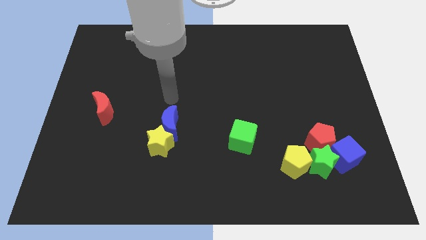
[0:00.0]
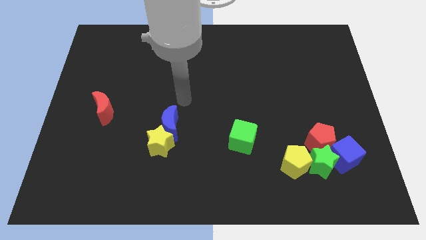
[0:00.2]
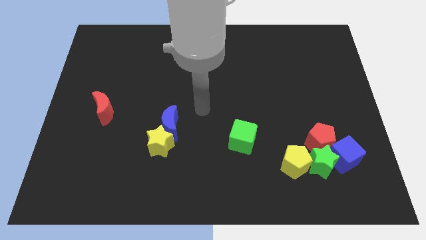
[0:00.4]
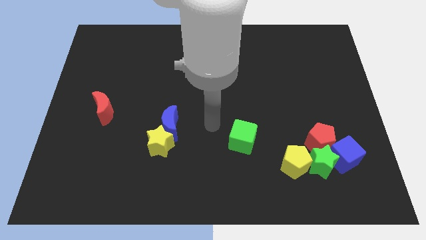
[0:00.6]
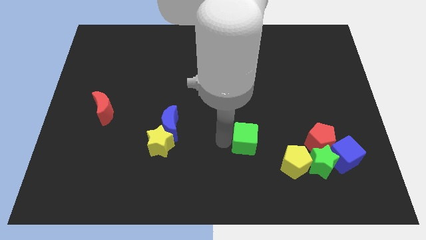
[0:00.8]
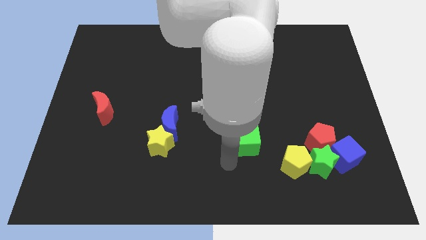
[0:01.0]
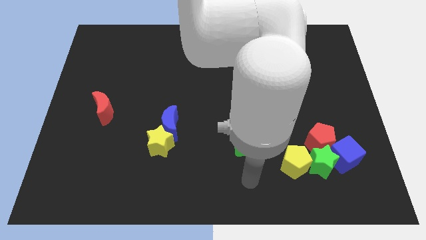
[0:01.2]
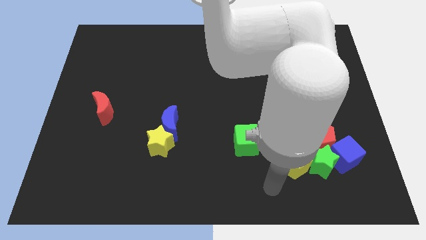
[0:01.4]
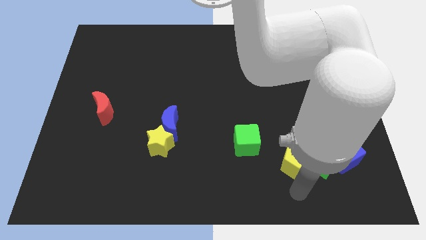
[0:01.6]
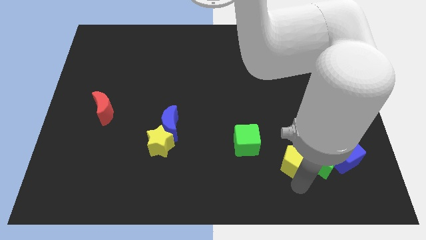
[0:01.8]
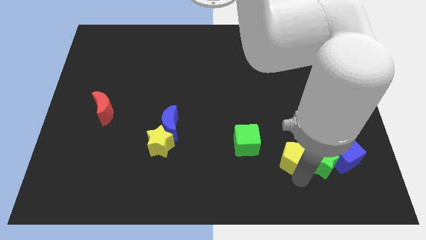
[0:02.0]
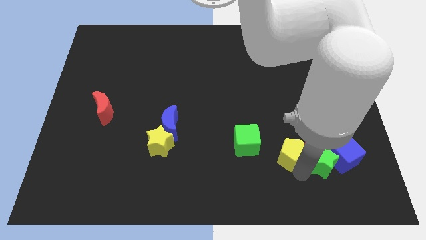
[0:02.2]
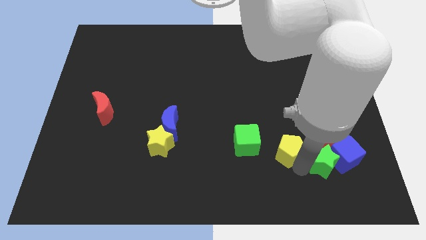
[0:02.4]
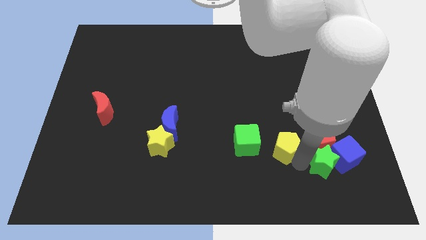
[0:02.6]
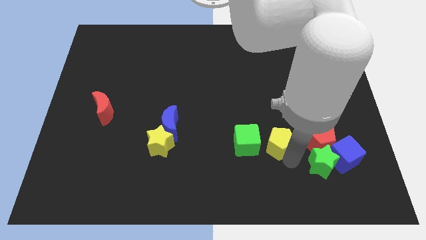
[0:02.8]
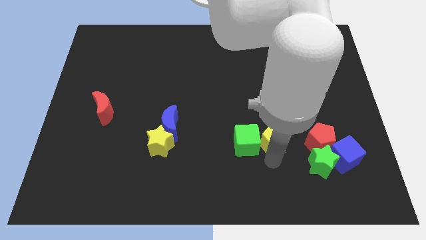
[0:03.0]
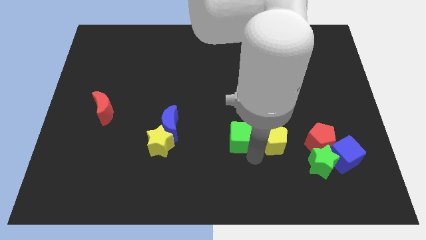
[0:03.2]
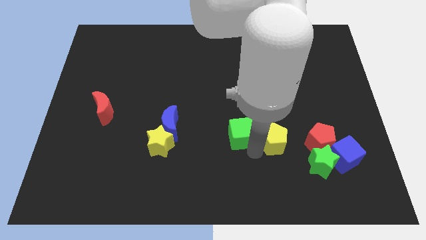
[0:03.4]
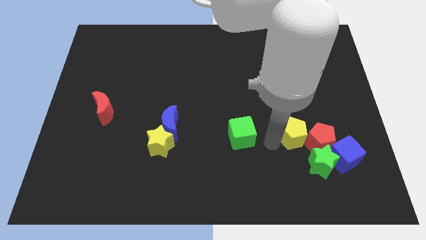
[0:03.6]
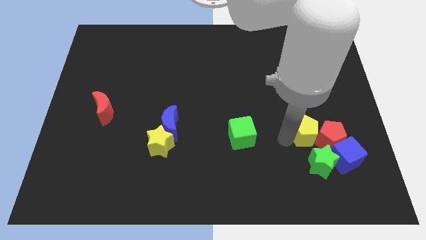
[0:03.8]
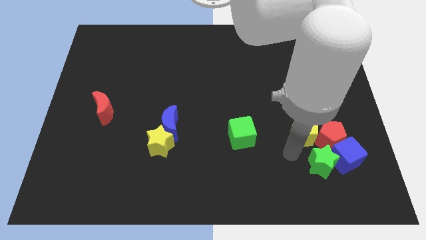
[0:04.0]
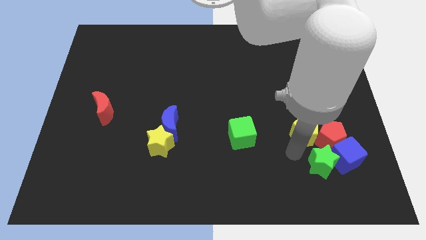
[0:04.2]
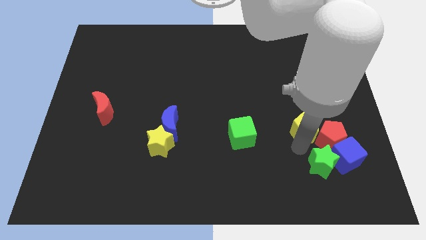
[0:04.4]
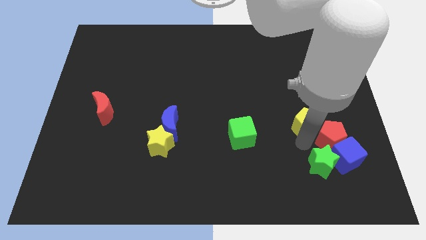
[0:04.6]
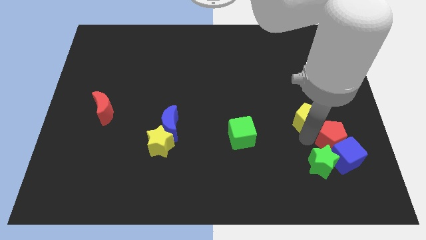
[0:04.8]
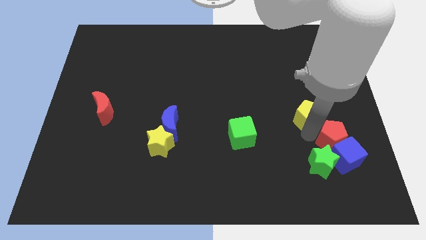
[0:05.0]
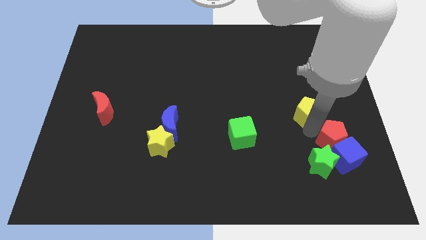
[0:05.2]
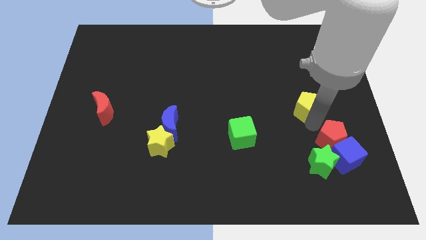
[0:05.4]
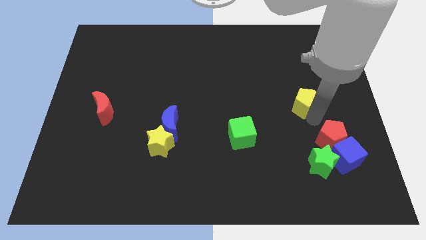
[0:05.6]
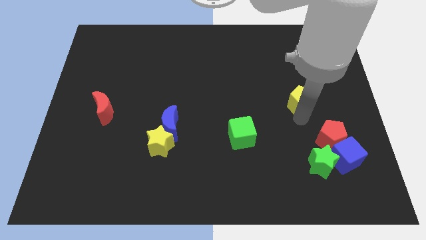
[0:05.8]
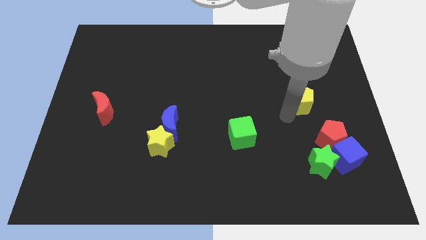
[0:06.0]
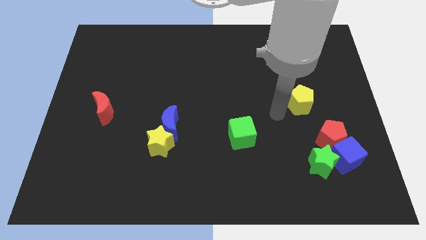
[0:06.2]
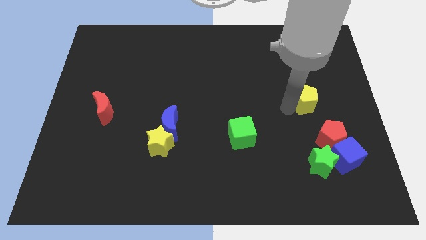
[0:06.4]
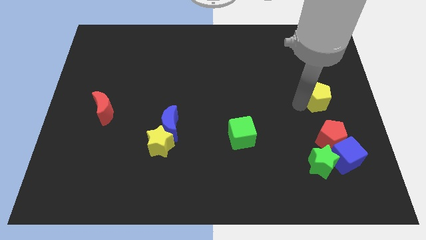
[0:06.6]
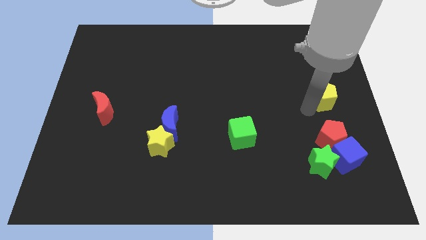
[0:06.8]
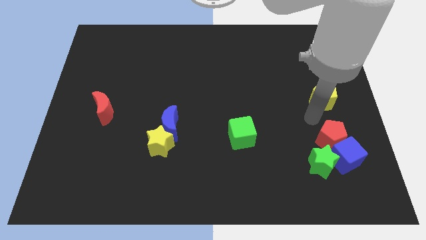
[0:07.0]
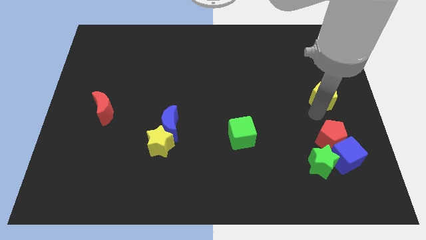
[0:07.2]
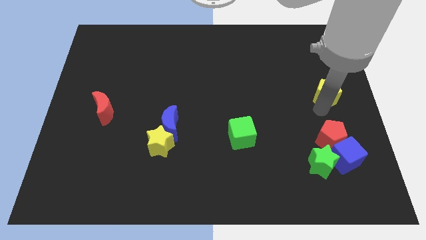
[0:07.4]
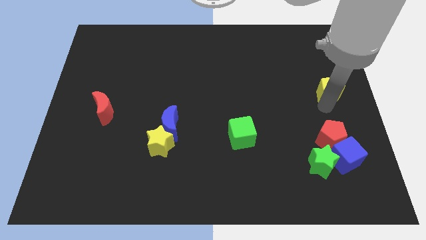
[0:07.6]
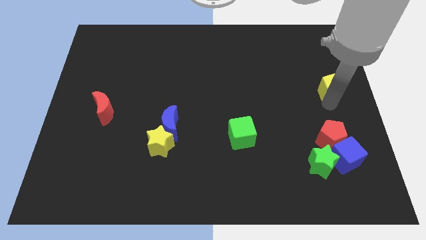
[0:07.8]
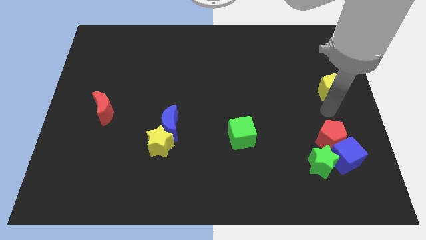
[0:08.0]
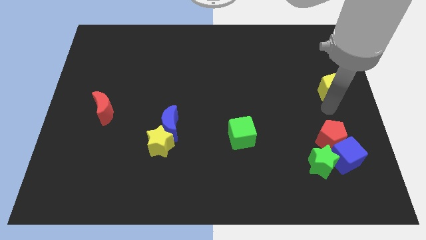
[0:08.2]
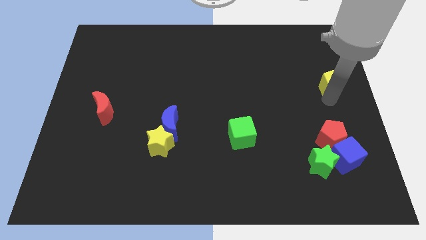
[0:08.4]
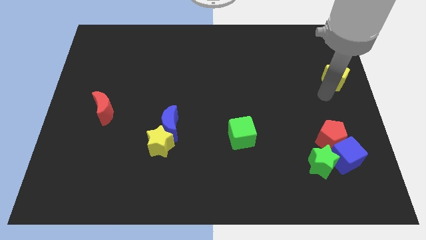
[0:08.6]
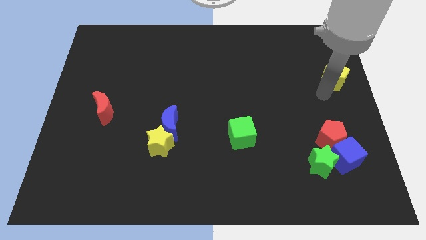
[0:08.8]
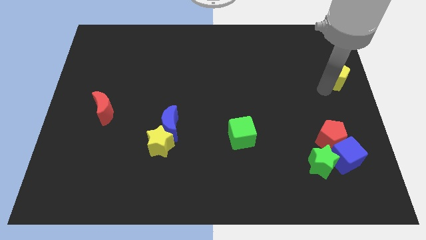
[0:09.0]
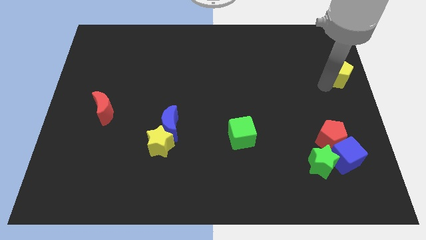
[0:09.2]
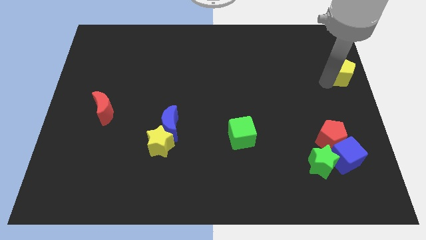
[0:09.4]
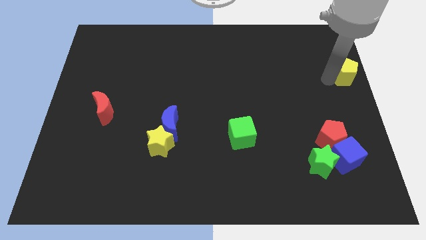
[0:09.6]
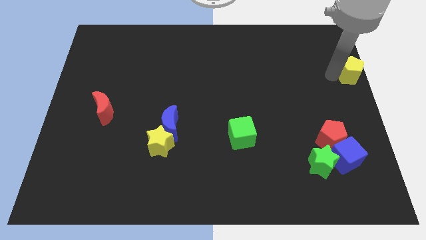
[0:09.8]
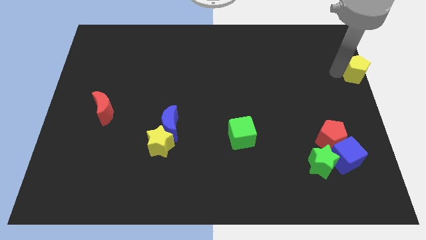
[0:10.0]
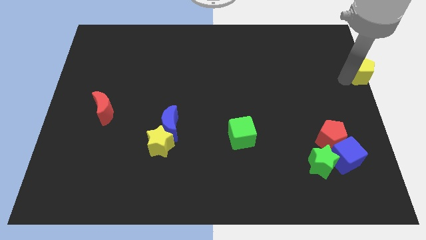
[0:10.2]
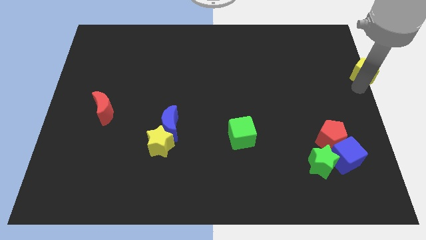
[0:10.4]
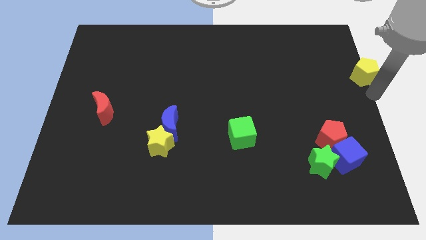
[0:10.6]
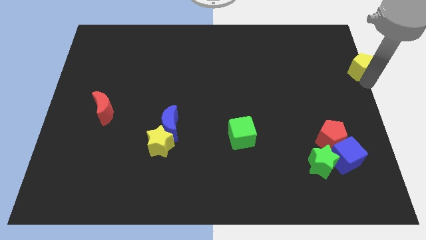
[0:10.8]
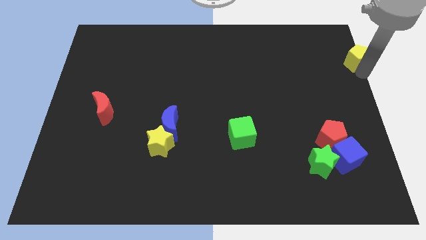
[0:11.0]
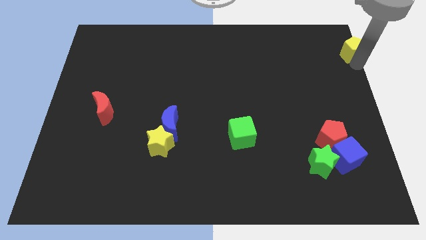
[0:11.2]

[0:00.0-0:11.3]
move the yellow pentagon to the top right

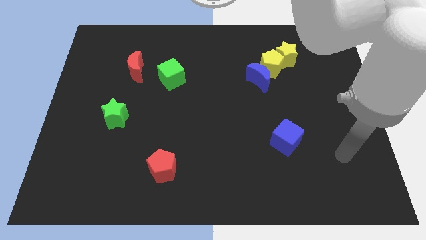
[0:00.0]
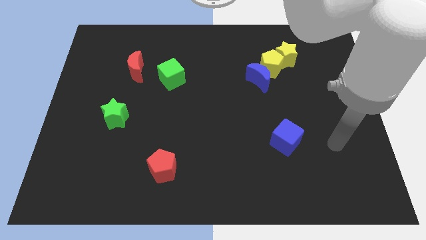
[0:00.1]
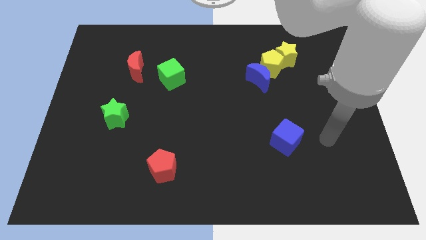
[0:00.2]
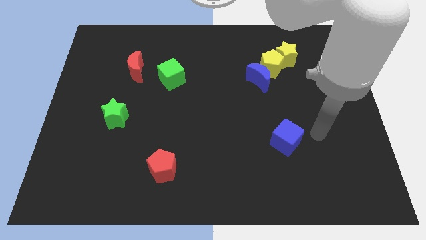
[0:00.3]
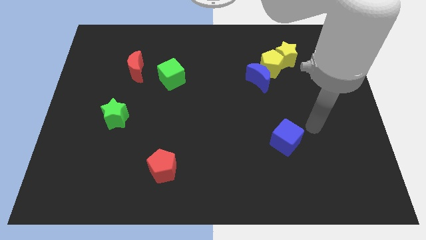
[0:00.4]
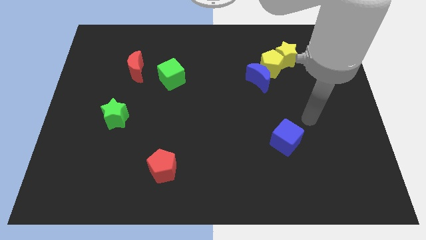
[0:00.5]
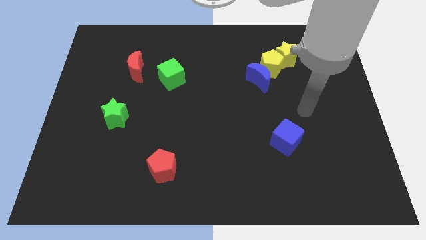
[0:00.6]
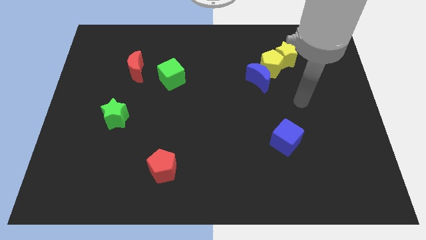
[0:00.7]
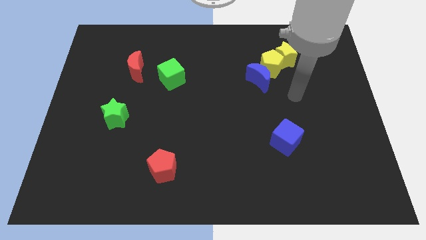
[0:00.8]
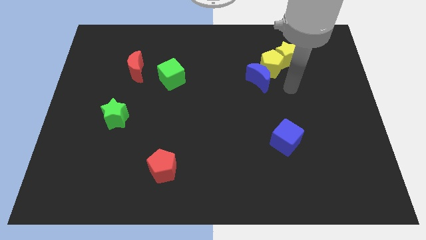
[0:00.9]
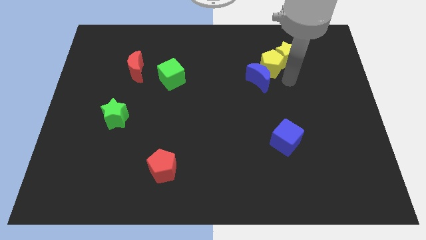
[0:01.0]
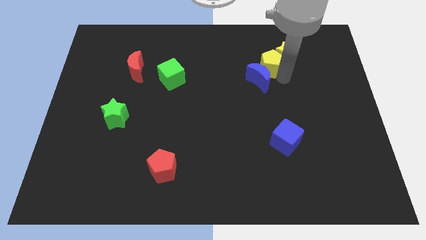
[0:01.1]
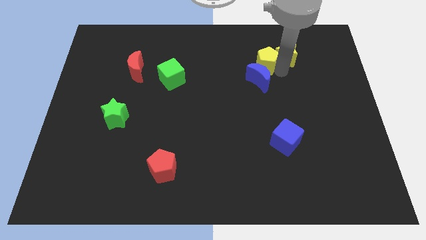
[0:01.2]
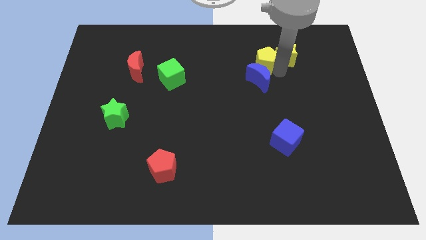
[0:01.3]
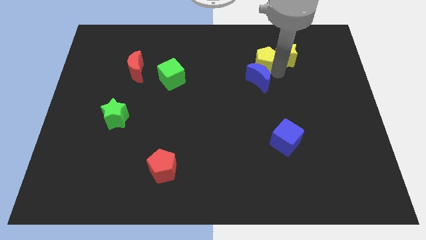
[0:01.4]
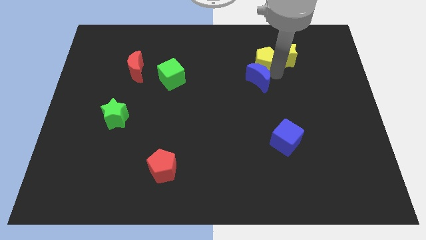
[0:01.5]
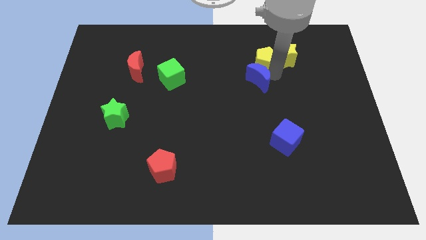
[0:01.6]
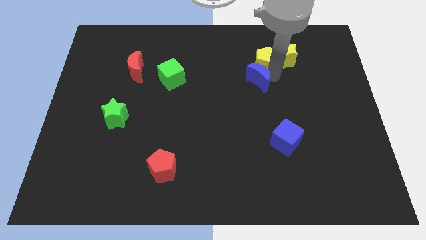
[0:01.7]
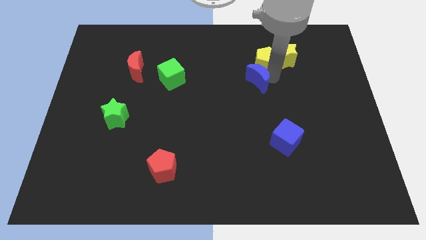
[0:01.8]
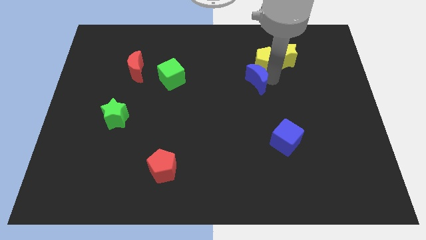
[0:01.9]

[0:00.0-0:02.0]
move the blue moon to the middle
